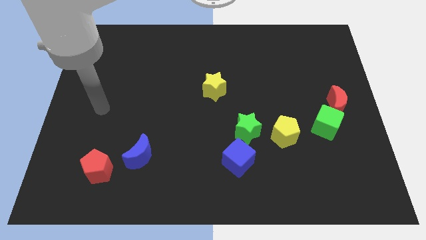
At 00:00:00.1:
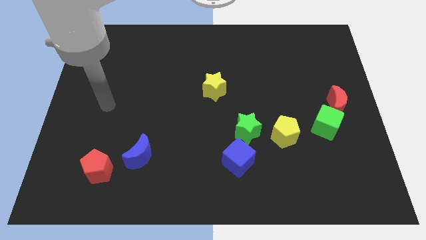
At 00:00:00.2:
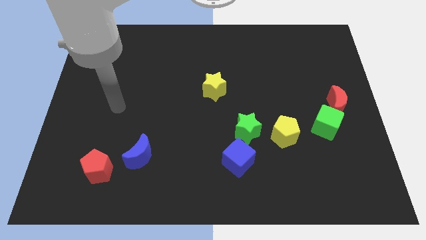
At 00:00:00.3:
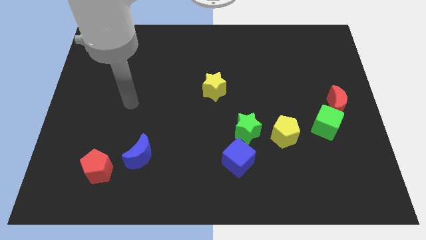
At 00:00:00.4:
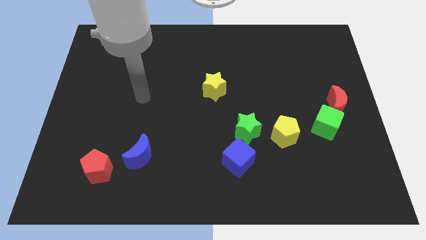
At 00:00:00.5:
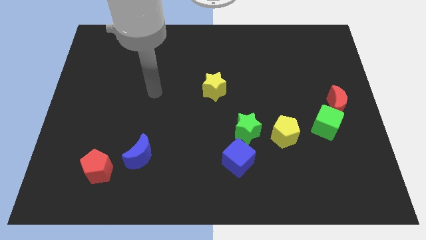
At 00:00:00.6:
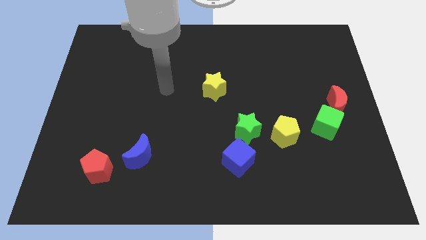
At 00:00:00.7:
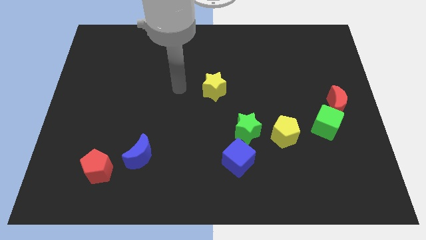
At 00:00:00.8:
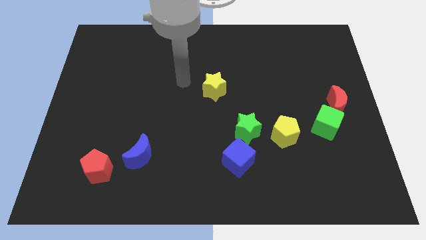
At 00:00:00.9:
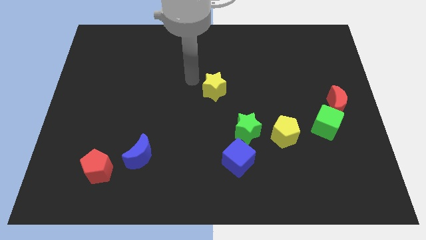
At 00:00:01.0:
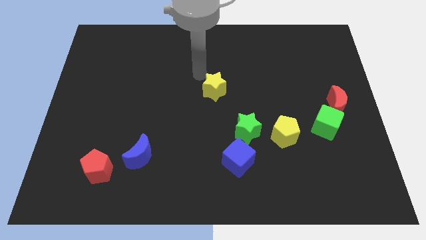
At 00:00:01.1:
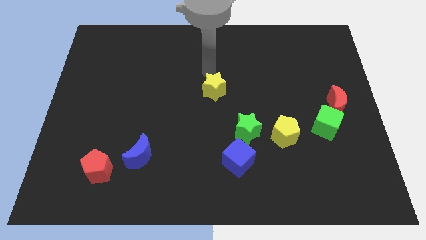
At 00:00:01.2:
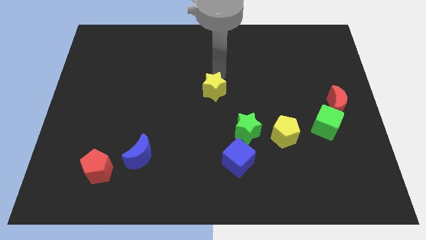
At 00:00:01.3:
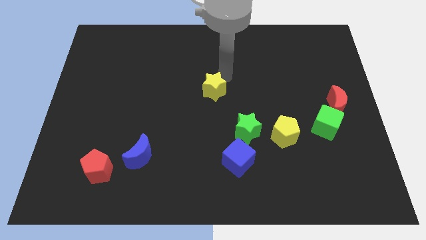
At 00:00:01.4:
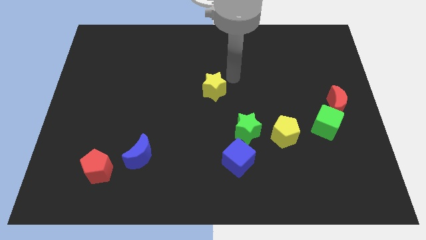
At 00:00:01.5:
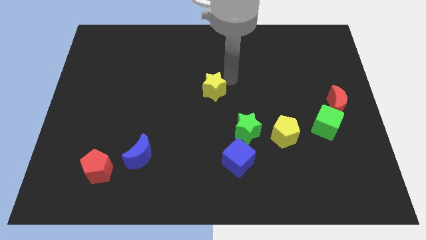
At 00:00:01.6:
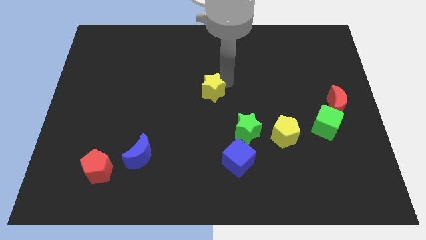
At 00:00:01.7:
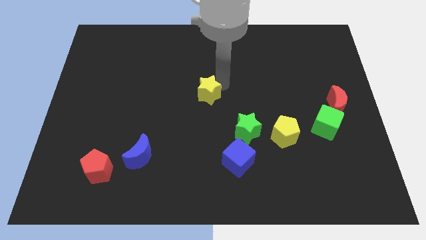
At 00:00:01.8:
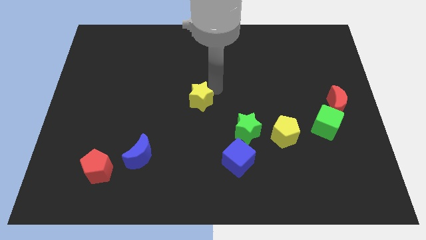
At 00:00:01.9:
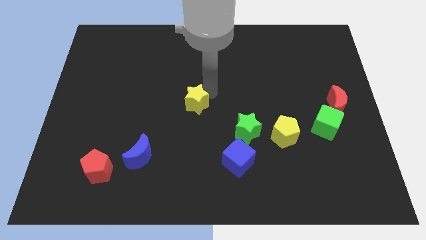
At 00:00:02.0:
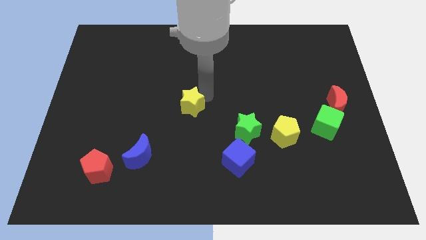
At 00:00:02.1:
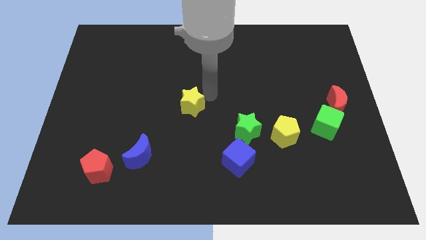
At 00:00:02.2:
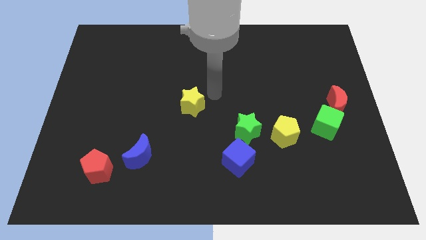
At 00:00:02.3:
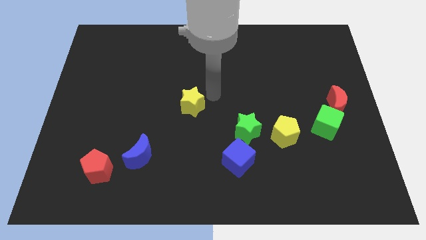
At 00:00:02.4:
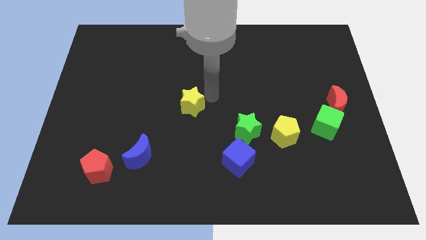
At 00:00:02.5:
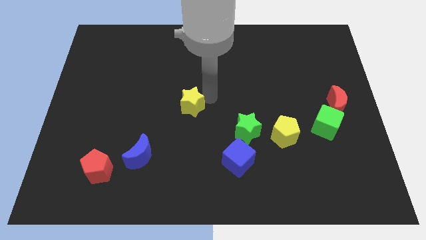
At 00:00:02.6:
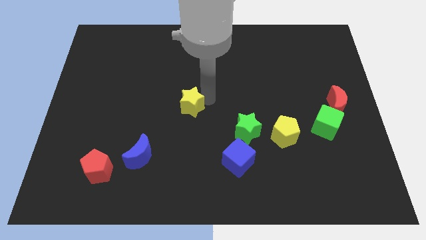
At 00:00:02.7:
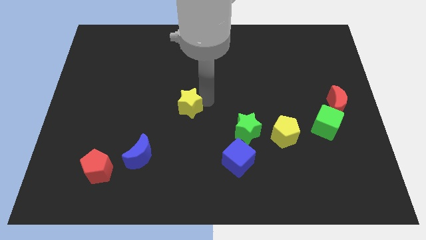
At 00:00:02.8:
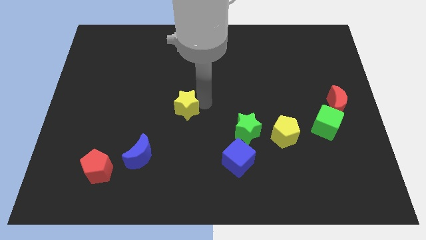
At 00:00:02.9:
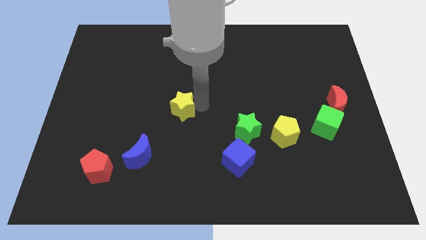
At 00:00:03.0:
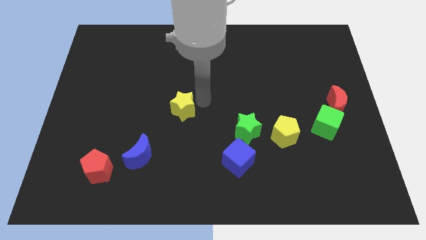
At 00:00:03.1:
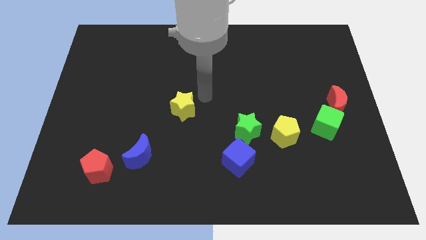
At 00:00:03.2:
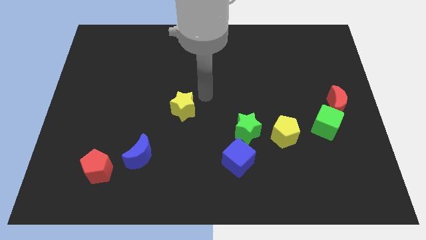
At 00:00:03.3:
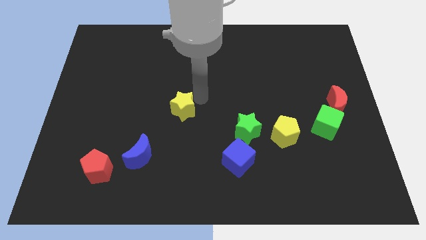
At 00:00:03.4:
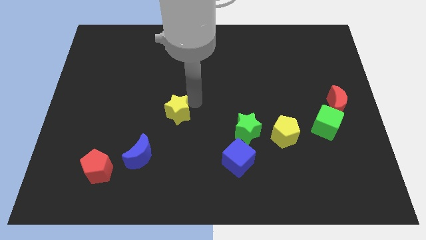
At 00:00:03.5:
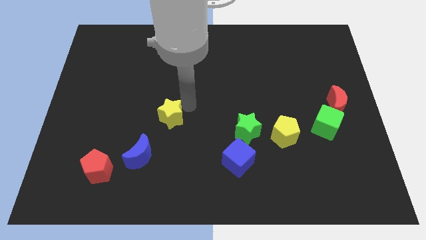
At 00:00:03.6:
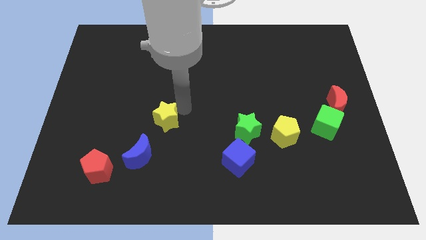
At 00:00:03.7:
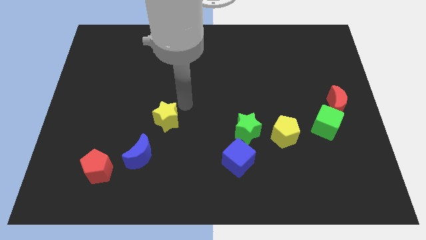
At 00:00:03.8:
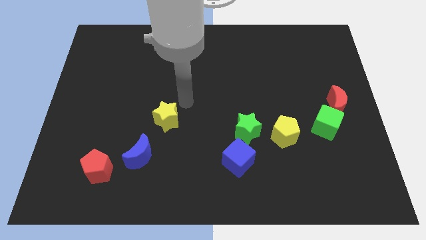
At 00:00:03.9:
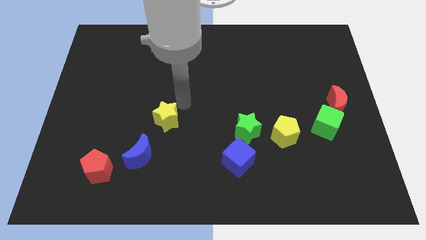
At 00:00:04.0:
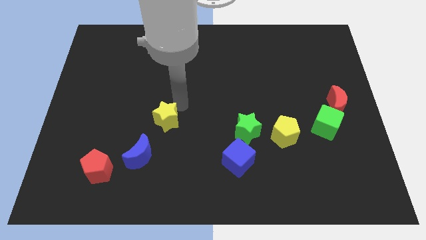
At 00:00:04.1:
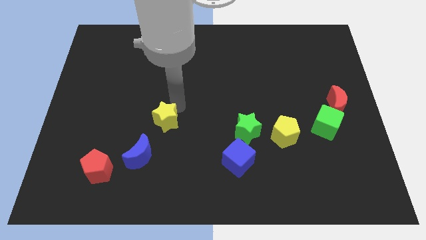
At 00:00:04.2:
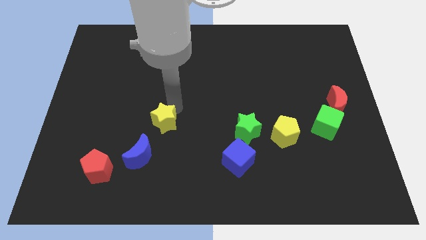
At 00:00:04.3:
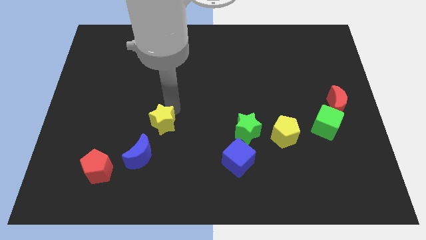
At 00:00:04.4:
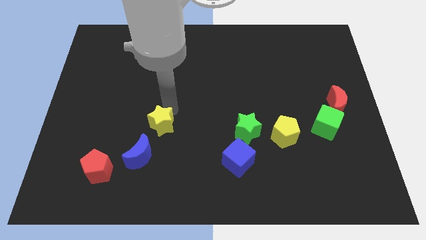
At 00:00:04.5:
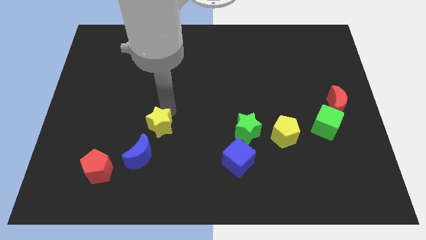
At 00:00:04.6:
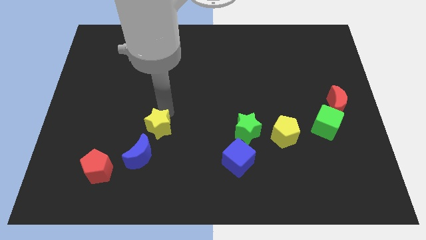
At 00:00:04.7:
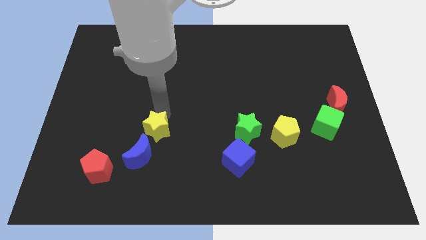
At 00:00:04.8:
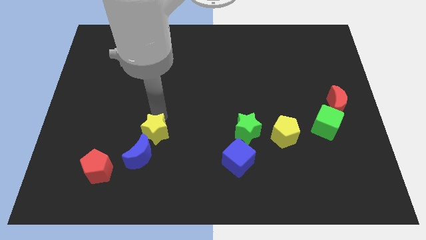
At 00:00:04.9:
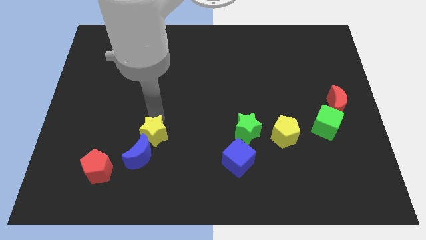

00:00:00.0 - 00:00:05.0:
put the yellow star to the blue moon

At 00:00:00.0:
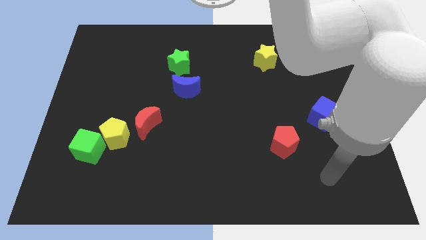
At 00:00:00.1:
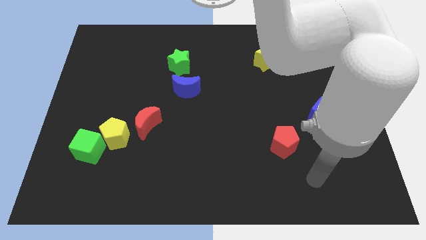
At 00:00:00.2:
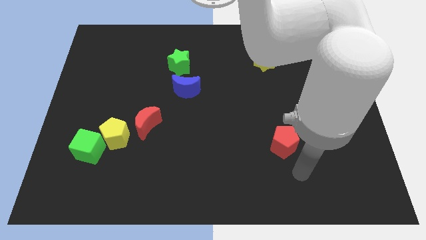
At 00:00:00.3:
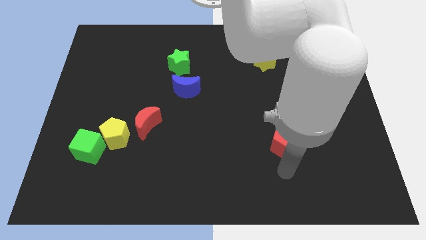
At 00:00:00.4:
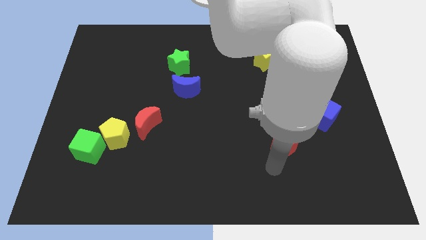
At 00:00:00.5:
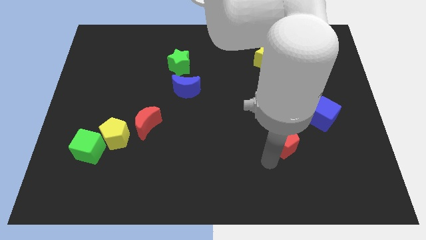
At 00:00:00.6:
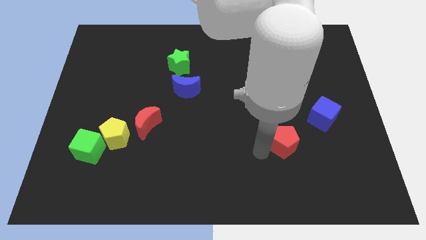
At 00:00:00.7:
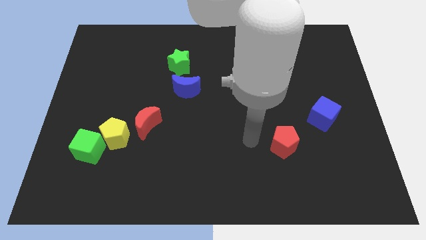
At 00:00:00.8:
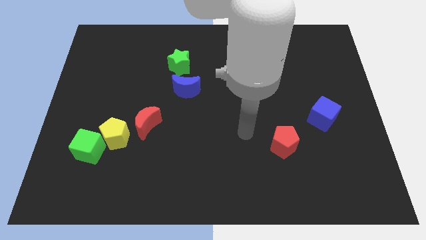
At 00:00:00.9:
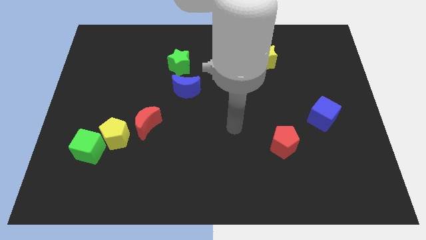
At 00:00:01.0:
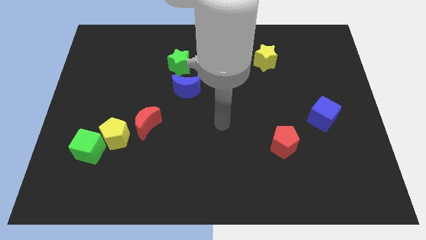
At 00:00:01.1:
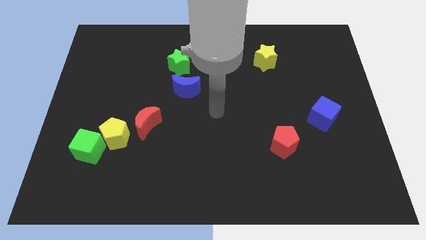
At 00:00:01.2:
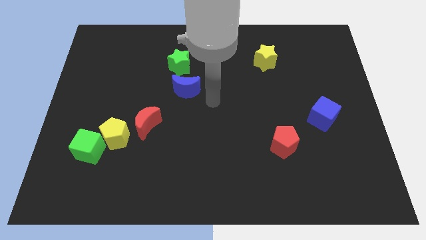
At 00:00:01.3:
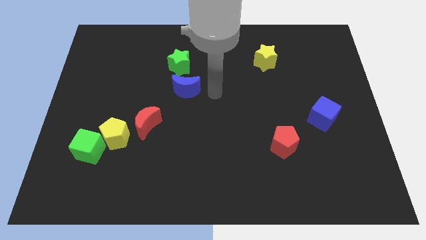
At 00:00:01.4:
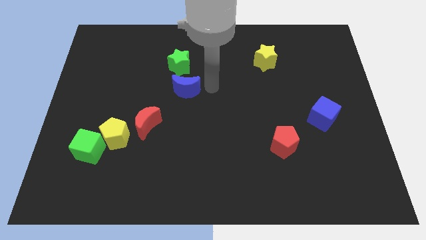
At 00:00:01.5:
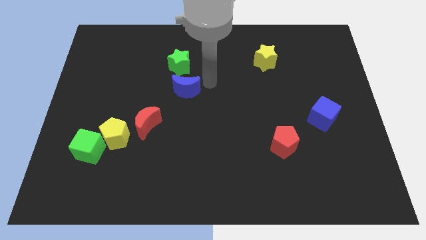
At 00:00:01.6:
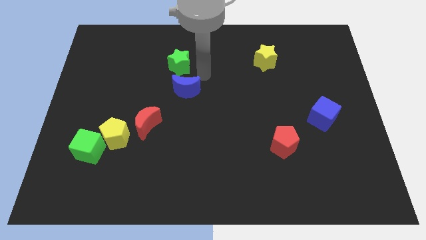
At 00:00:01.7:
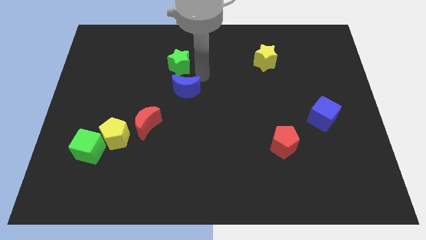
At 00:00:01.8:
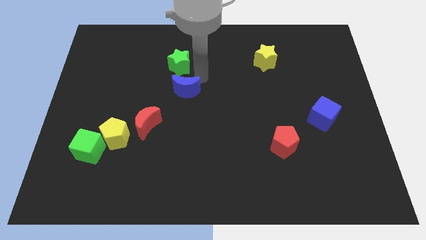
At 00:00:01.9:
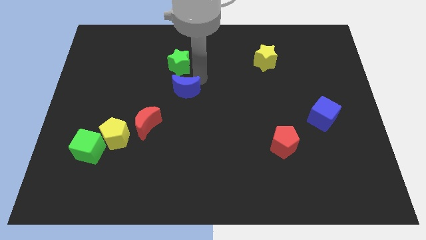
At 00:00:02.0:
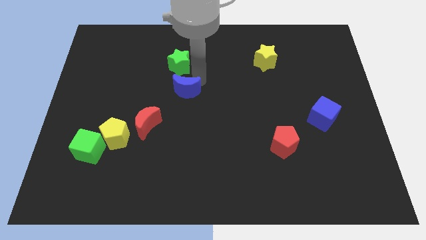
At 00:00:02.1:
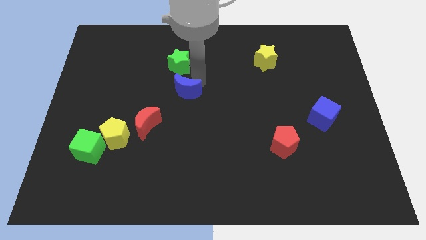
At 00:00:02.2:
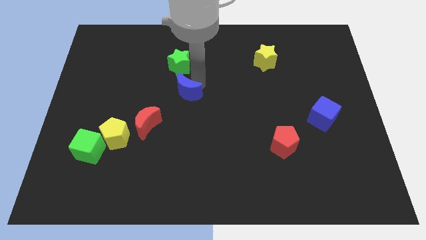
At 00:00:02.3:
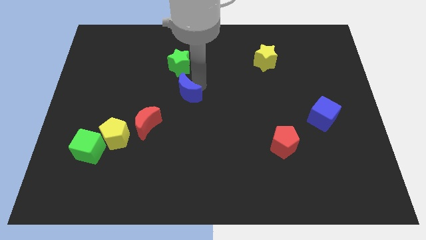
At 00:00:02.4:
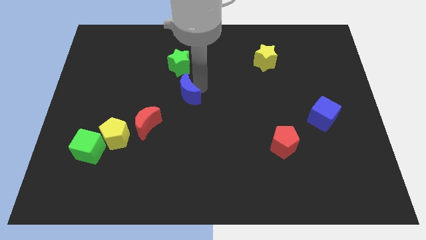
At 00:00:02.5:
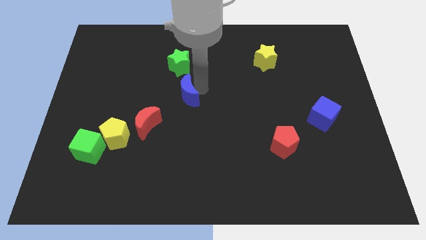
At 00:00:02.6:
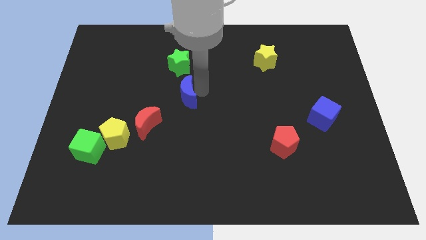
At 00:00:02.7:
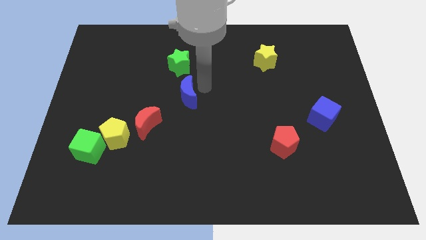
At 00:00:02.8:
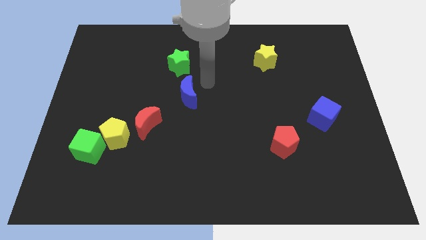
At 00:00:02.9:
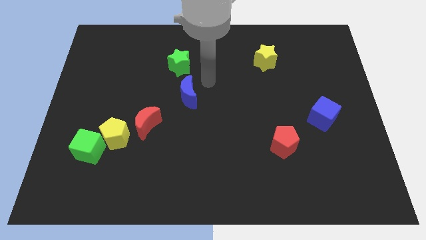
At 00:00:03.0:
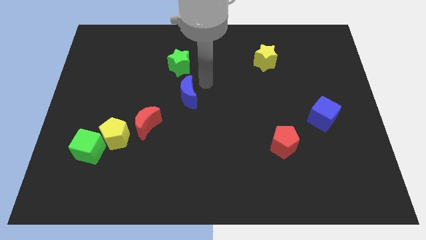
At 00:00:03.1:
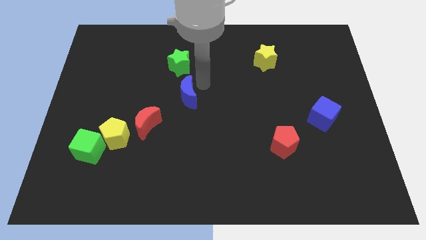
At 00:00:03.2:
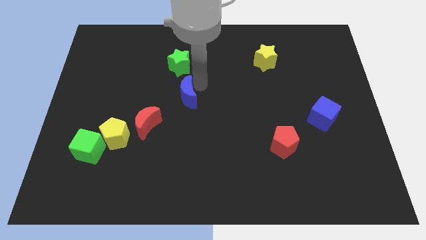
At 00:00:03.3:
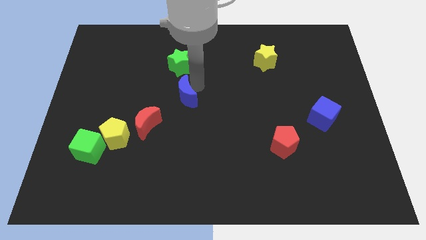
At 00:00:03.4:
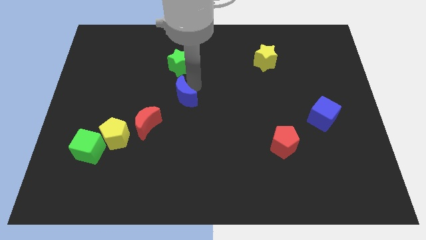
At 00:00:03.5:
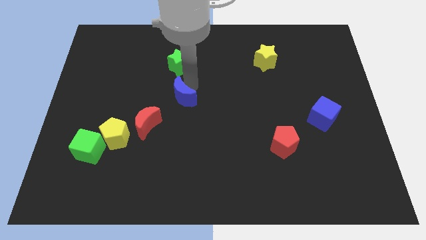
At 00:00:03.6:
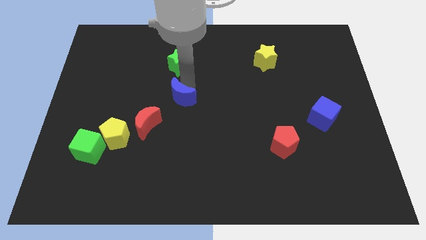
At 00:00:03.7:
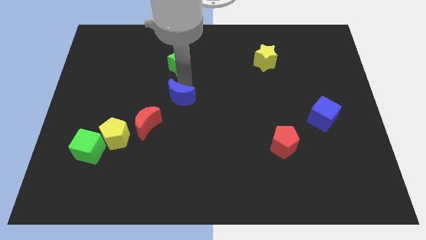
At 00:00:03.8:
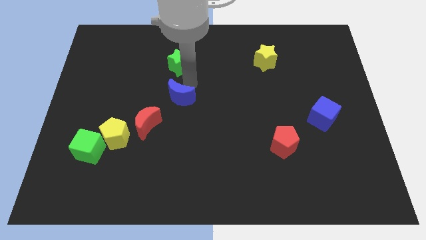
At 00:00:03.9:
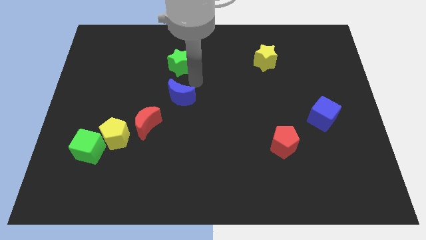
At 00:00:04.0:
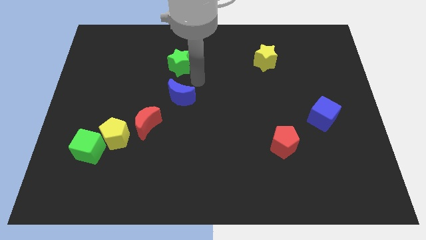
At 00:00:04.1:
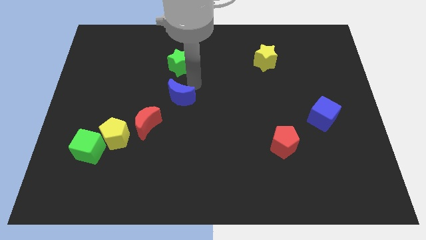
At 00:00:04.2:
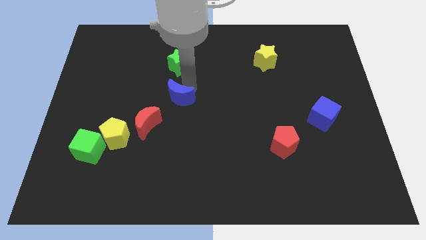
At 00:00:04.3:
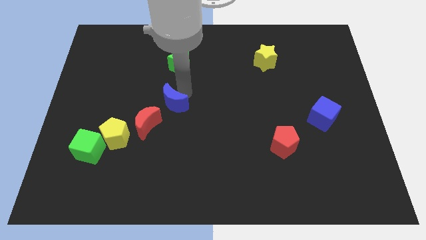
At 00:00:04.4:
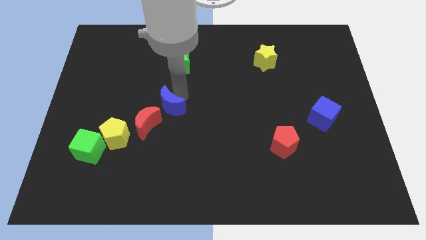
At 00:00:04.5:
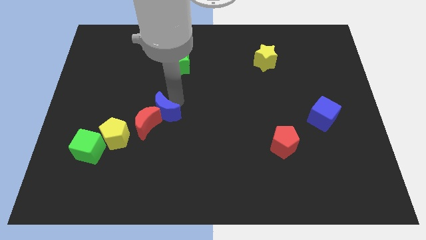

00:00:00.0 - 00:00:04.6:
move the blue moon towards the red moon
